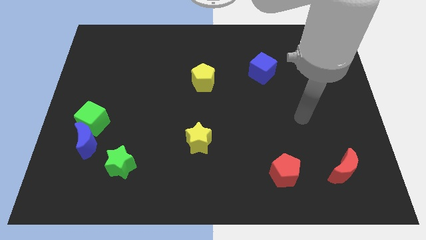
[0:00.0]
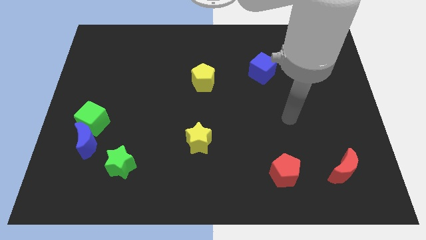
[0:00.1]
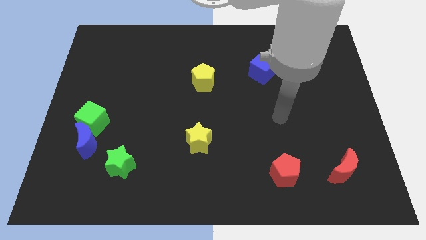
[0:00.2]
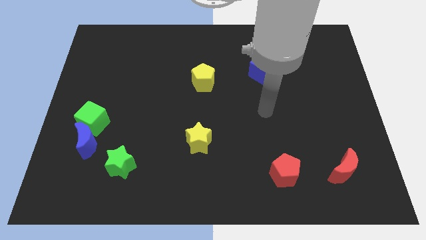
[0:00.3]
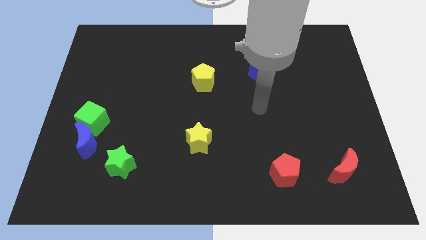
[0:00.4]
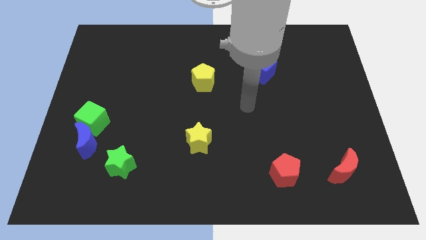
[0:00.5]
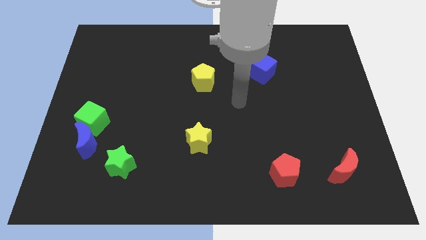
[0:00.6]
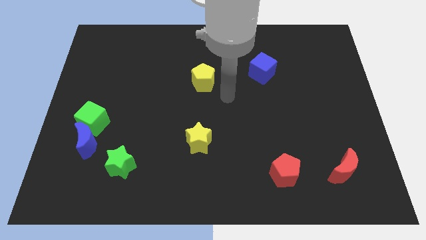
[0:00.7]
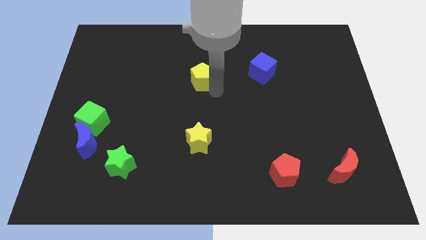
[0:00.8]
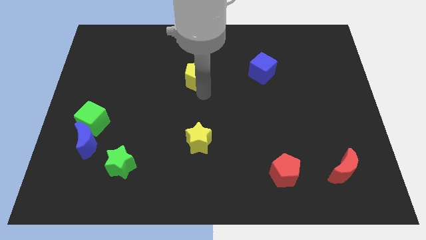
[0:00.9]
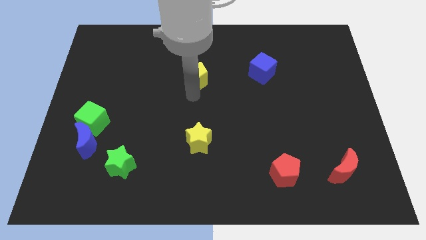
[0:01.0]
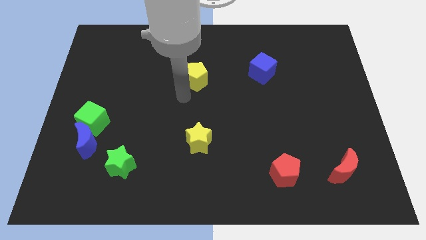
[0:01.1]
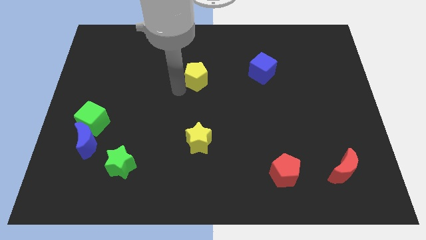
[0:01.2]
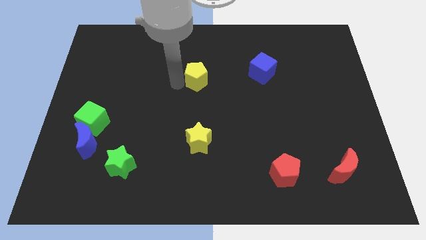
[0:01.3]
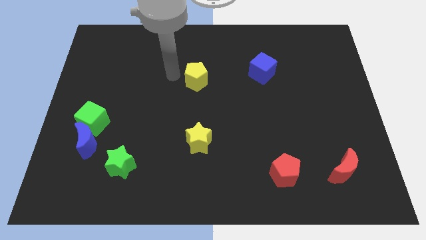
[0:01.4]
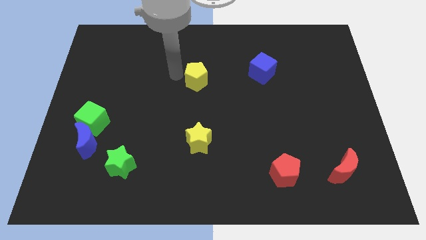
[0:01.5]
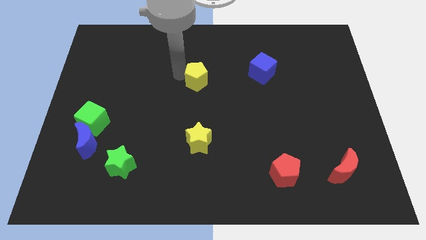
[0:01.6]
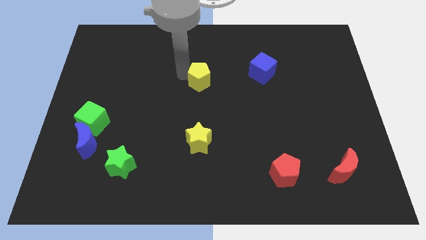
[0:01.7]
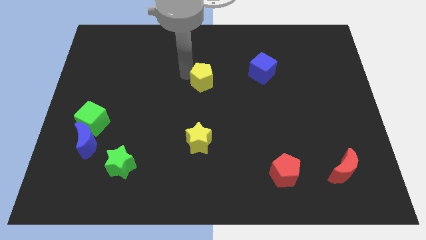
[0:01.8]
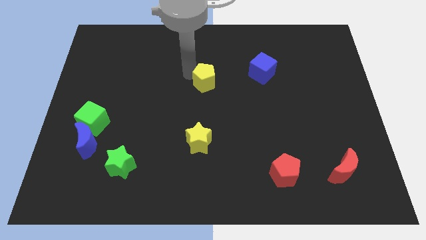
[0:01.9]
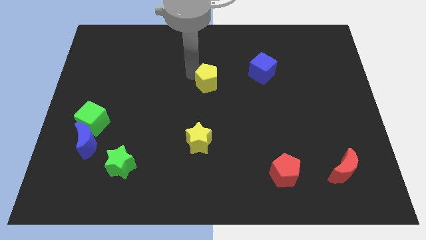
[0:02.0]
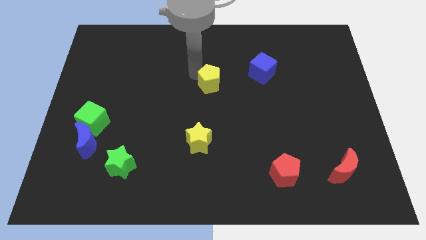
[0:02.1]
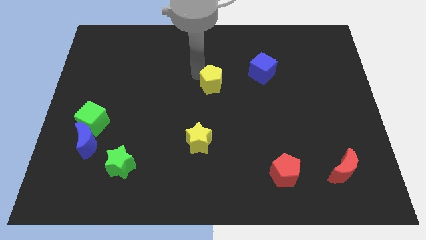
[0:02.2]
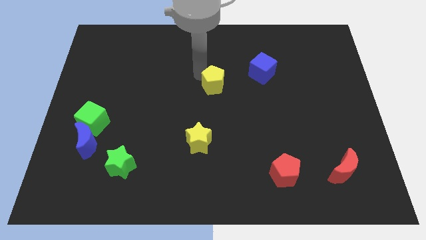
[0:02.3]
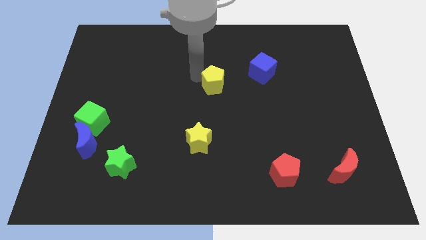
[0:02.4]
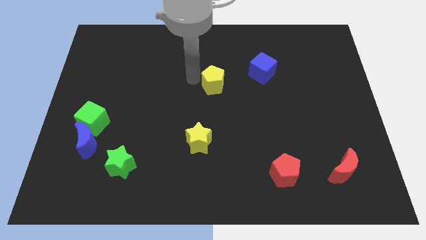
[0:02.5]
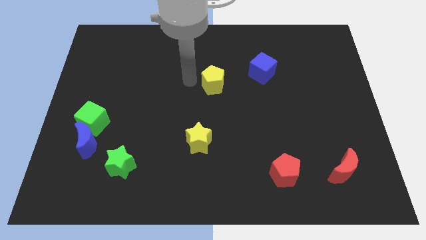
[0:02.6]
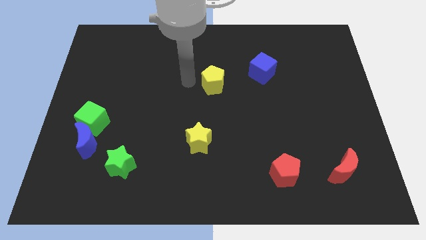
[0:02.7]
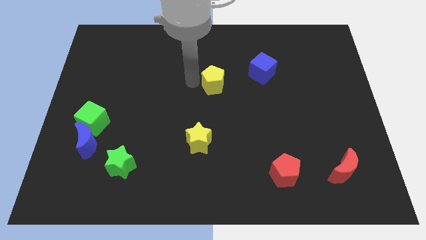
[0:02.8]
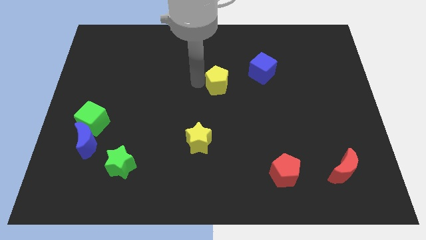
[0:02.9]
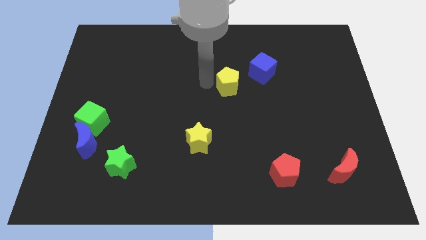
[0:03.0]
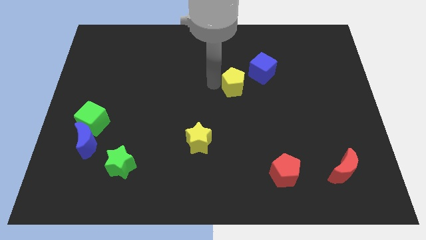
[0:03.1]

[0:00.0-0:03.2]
move the yellow pentagon right a little bit

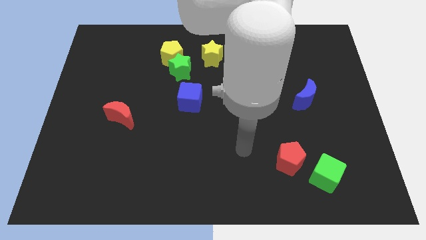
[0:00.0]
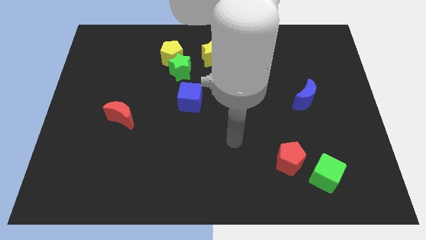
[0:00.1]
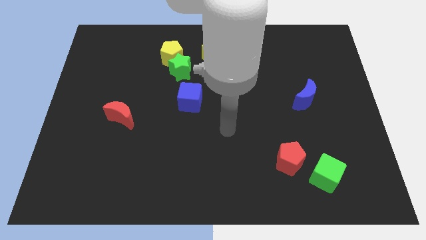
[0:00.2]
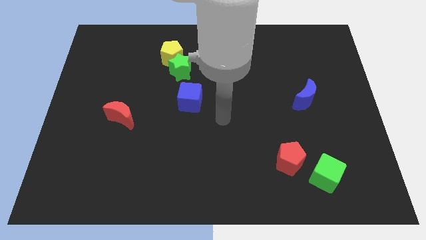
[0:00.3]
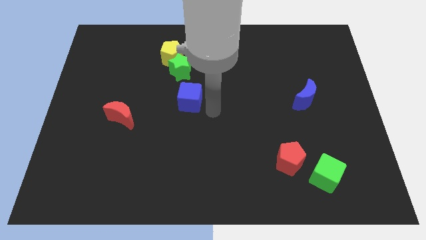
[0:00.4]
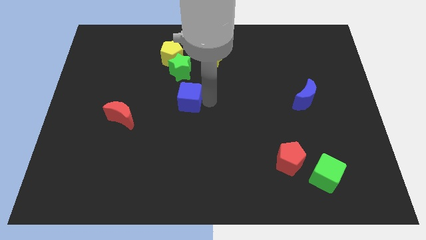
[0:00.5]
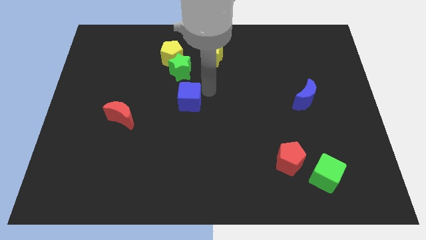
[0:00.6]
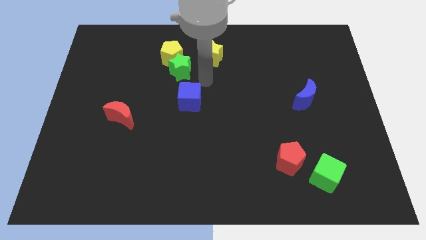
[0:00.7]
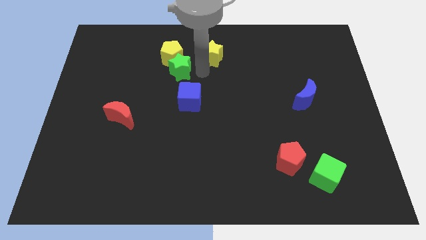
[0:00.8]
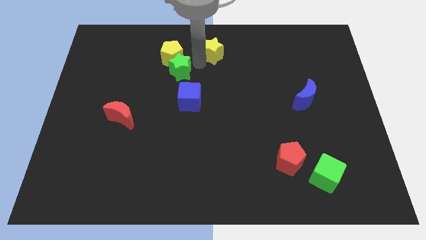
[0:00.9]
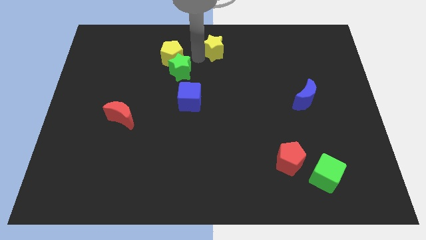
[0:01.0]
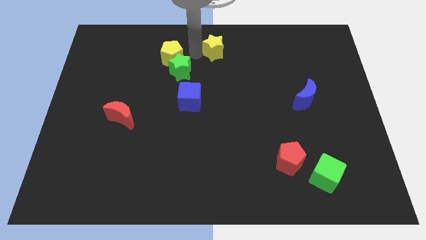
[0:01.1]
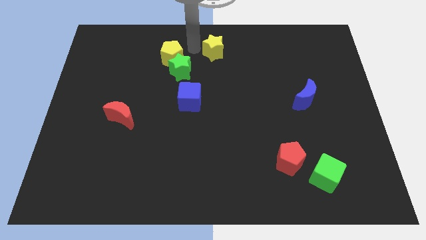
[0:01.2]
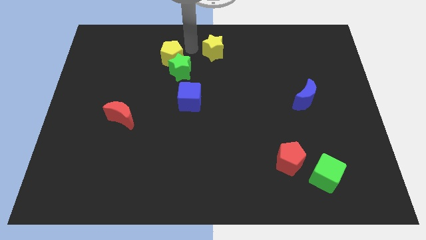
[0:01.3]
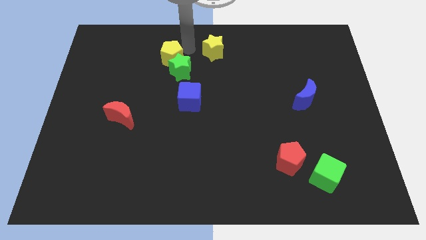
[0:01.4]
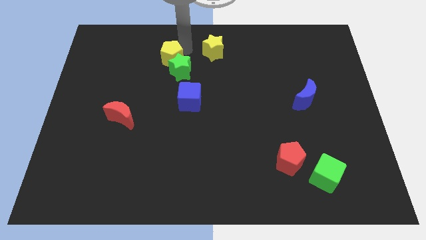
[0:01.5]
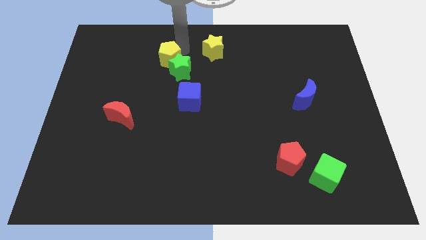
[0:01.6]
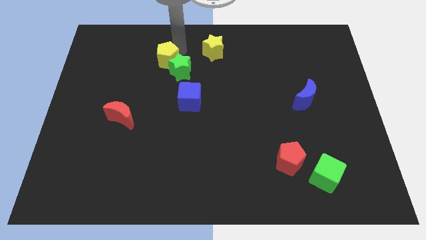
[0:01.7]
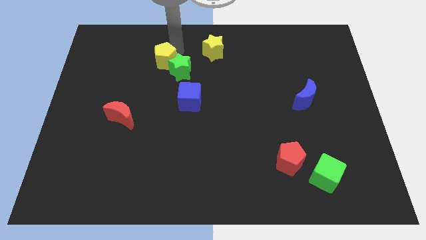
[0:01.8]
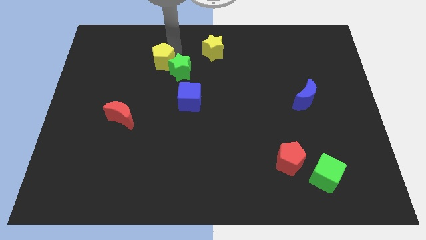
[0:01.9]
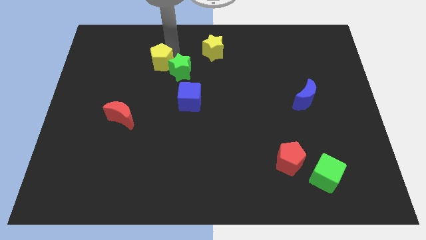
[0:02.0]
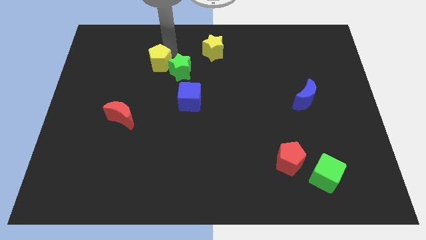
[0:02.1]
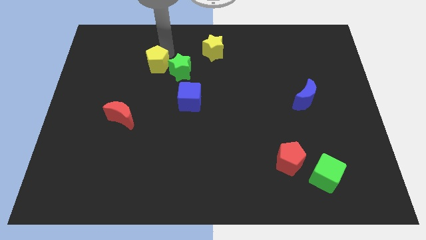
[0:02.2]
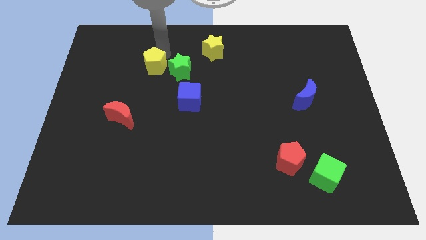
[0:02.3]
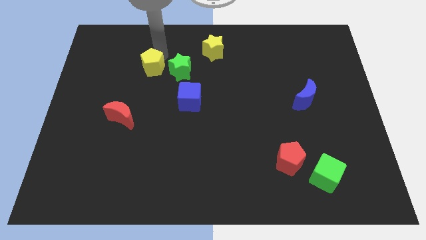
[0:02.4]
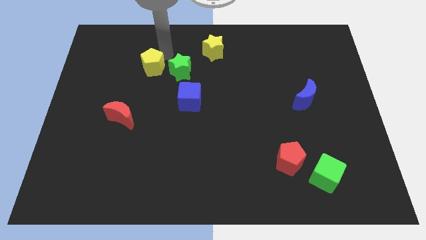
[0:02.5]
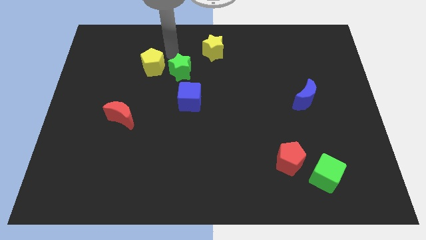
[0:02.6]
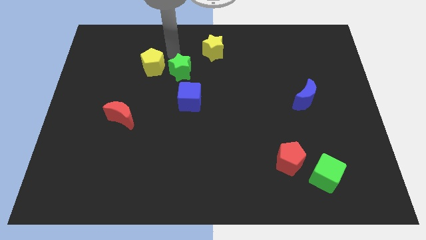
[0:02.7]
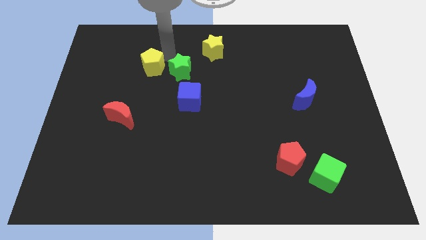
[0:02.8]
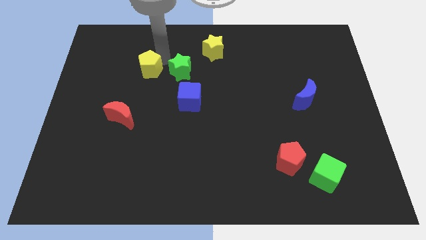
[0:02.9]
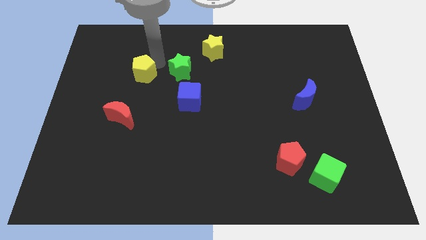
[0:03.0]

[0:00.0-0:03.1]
slightly move the yellow pentagon downwards and then to the left

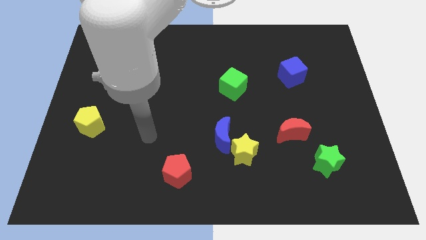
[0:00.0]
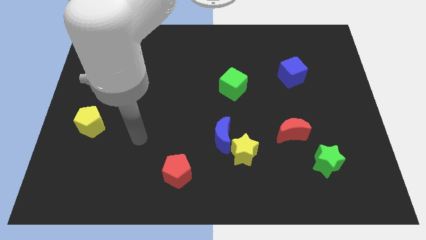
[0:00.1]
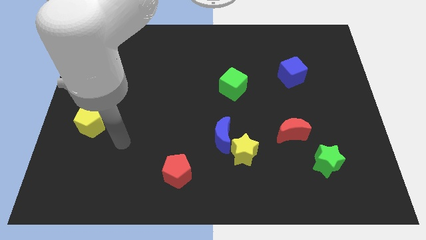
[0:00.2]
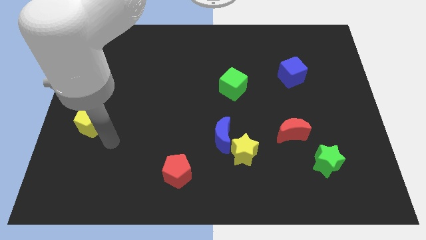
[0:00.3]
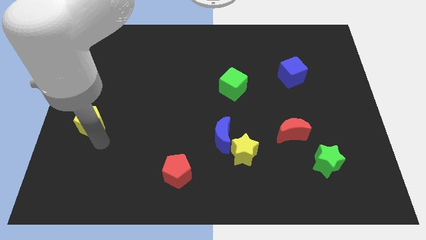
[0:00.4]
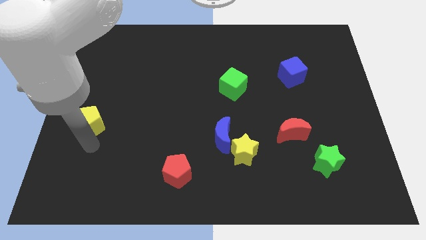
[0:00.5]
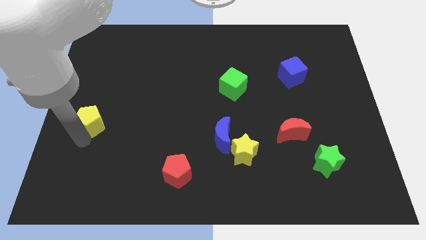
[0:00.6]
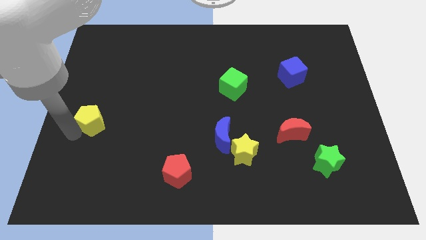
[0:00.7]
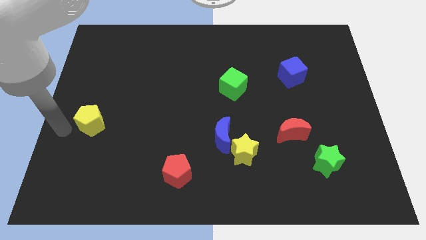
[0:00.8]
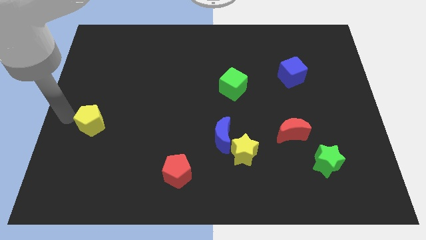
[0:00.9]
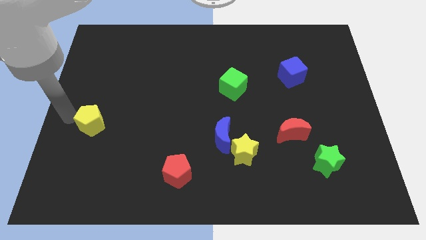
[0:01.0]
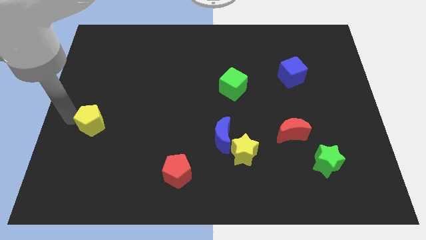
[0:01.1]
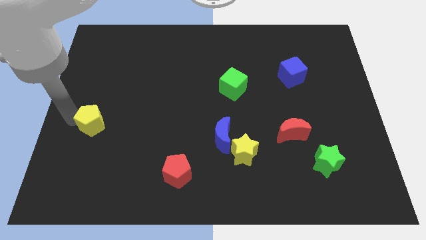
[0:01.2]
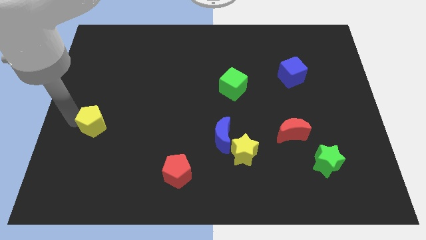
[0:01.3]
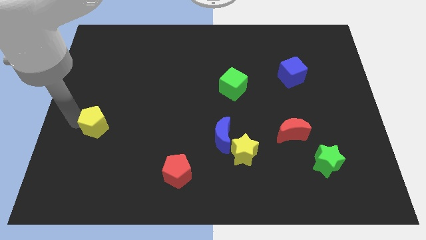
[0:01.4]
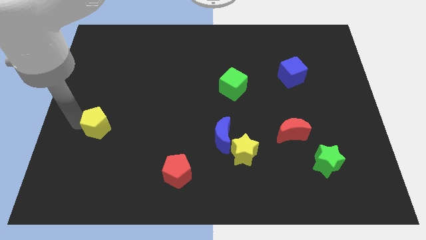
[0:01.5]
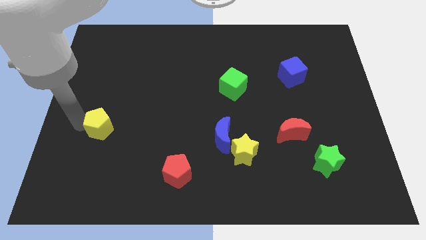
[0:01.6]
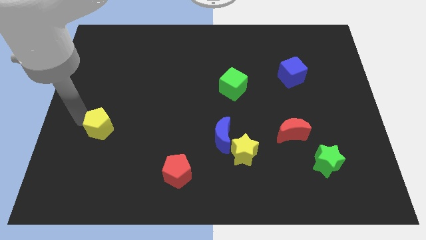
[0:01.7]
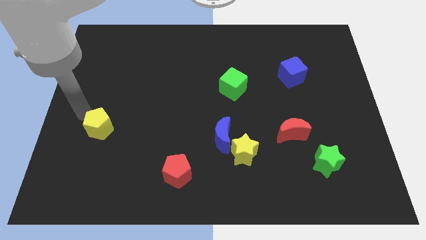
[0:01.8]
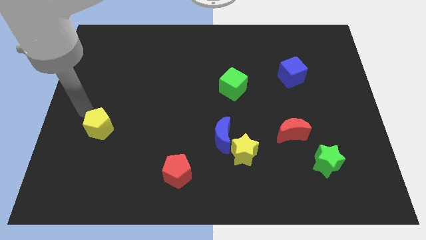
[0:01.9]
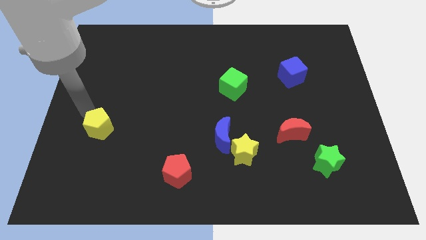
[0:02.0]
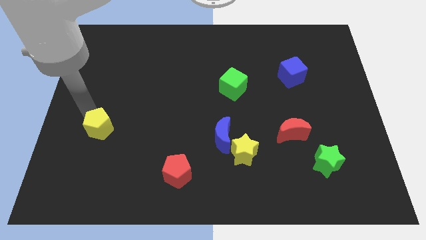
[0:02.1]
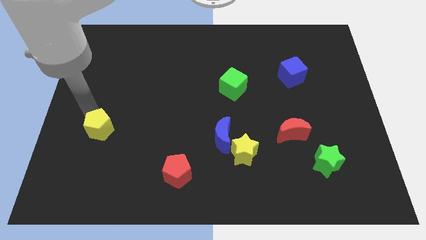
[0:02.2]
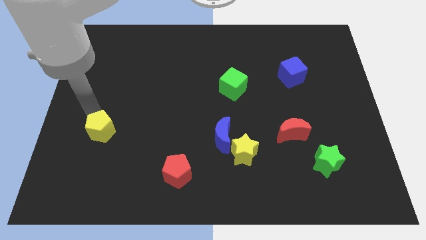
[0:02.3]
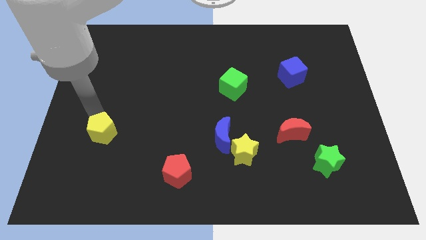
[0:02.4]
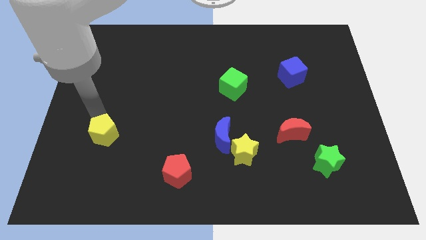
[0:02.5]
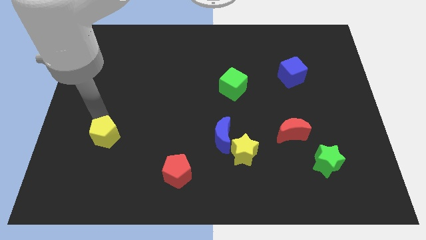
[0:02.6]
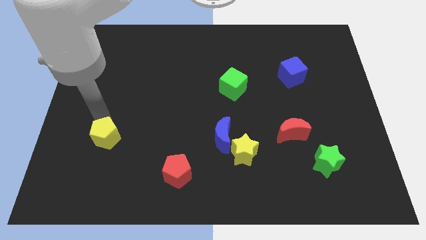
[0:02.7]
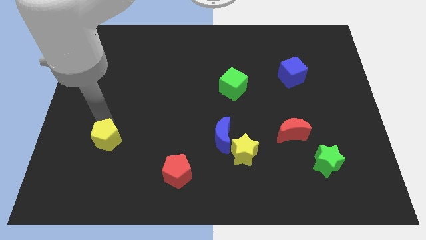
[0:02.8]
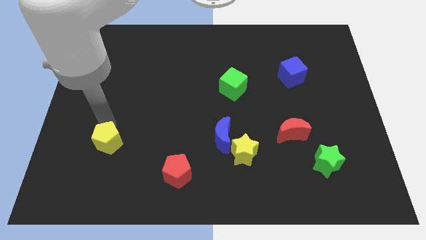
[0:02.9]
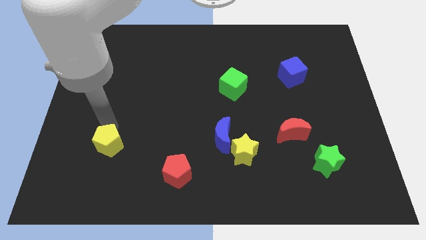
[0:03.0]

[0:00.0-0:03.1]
move the yellow pentagon down and to the right a little bit
